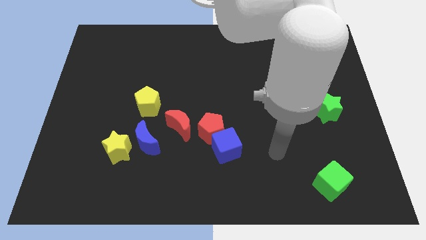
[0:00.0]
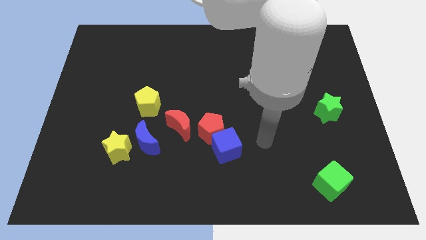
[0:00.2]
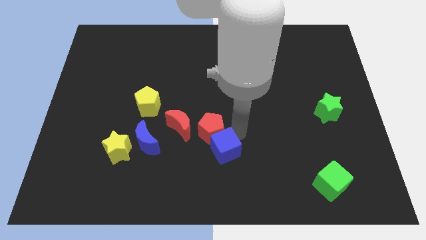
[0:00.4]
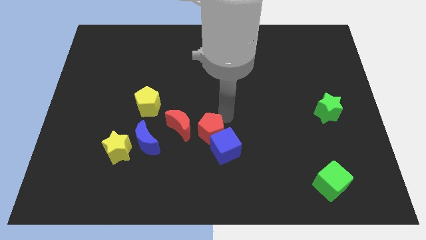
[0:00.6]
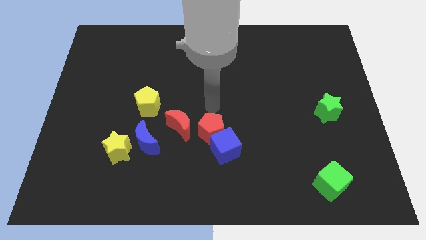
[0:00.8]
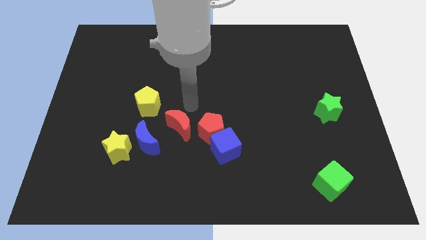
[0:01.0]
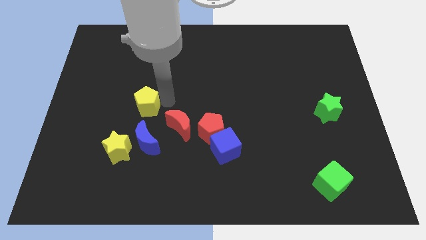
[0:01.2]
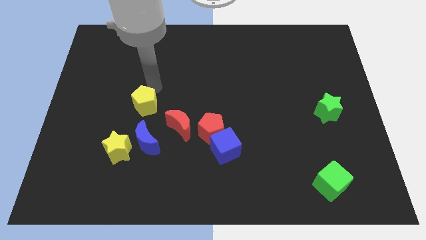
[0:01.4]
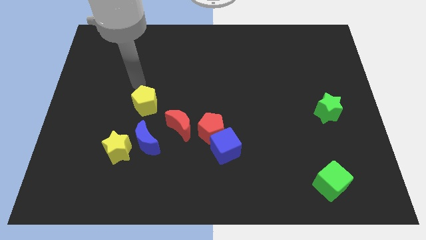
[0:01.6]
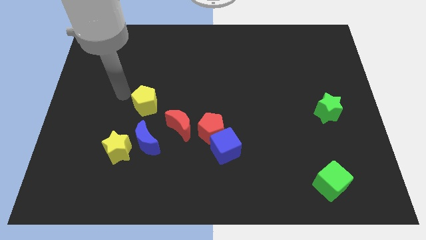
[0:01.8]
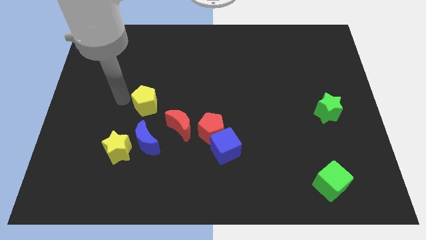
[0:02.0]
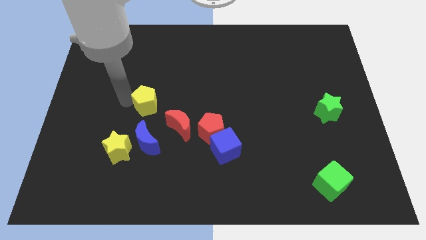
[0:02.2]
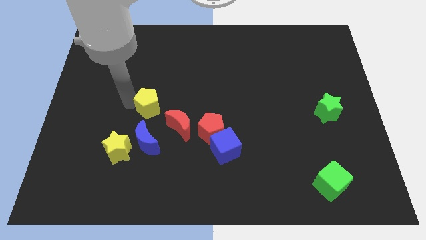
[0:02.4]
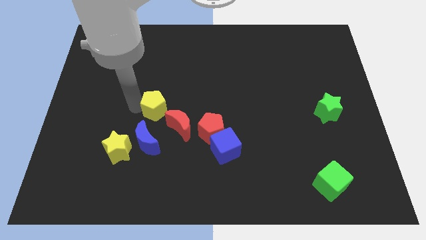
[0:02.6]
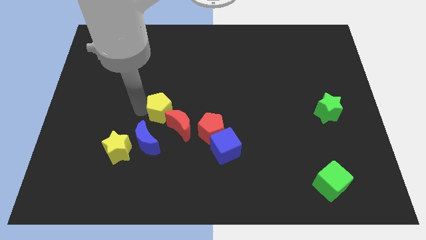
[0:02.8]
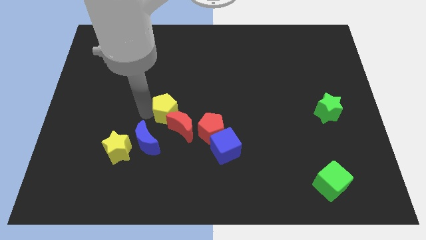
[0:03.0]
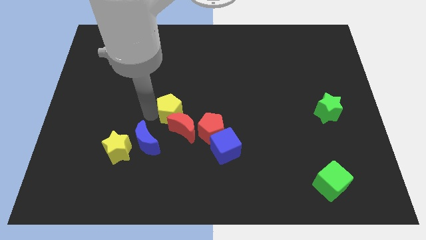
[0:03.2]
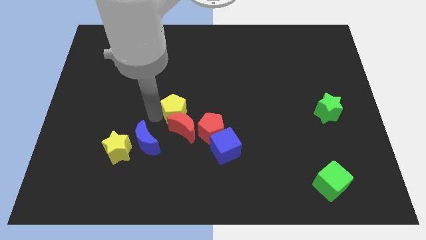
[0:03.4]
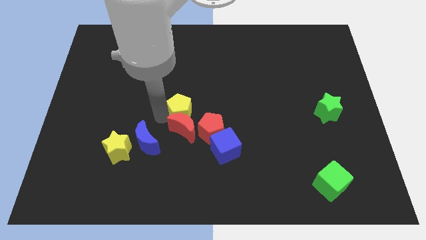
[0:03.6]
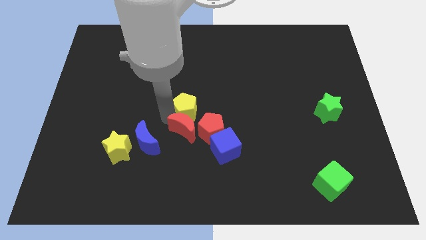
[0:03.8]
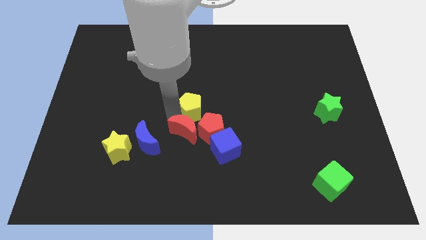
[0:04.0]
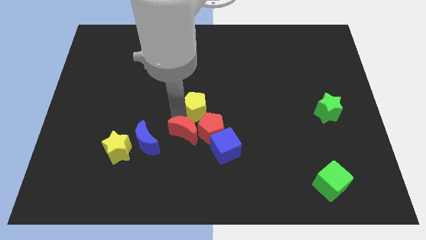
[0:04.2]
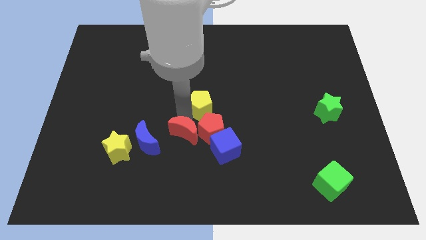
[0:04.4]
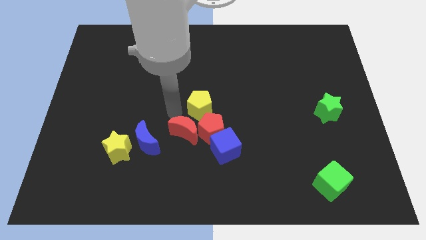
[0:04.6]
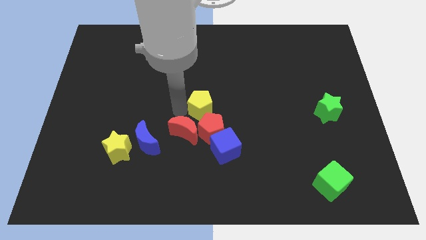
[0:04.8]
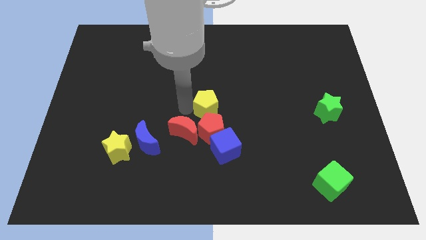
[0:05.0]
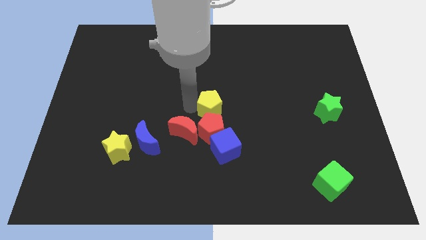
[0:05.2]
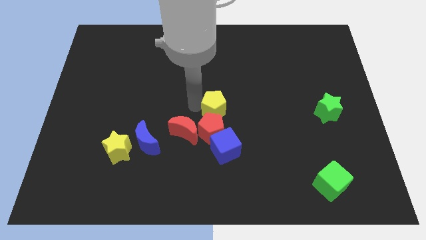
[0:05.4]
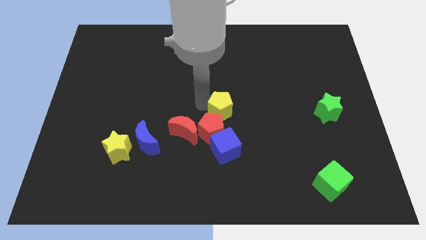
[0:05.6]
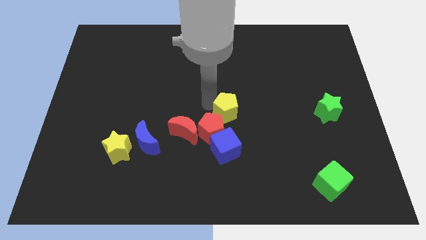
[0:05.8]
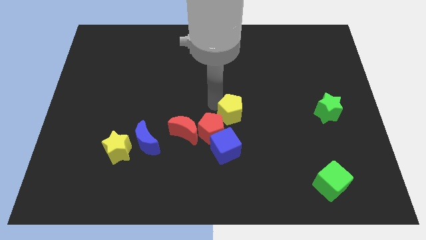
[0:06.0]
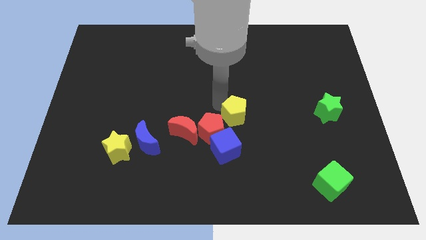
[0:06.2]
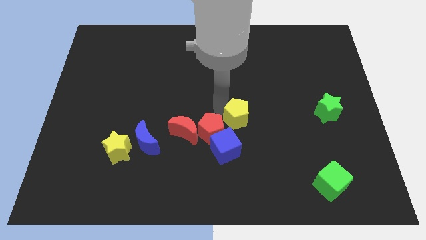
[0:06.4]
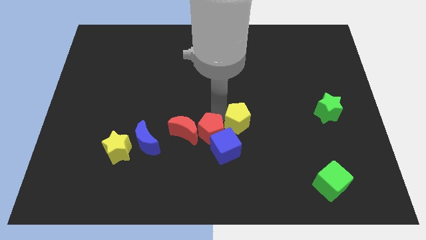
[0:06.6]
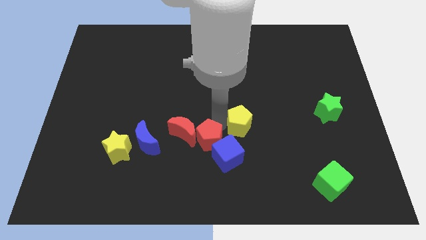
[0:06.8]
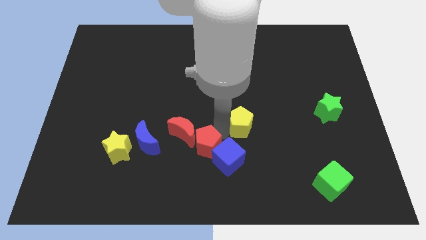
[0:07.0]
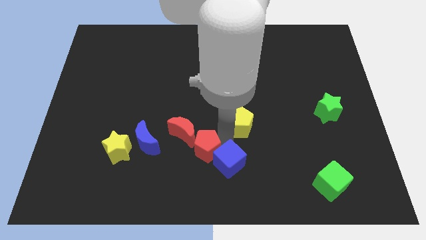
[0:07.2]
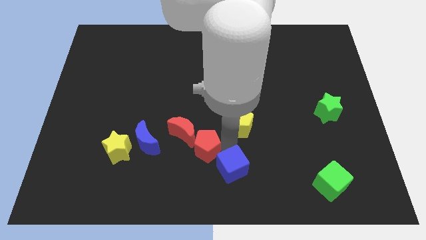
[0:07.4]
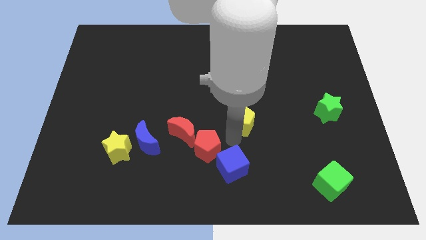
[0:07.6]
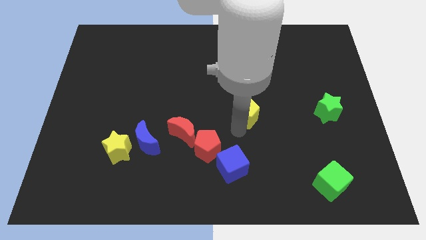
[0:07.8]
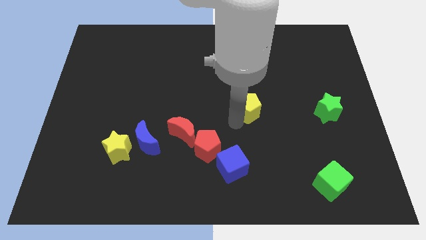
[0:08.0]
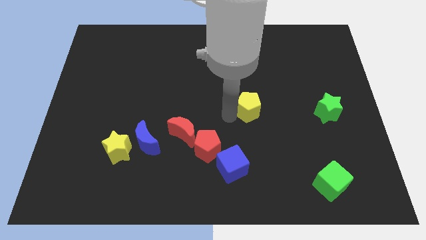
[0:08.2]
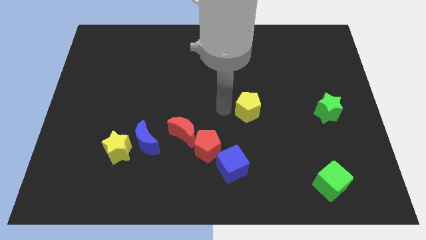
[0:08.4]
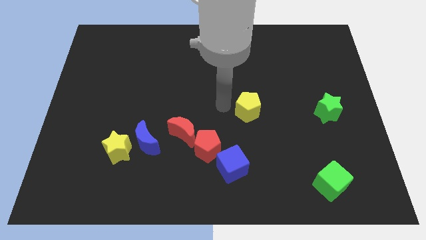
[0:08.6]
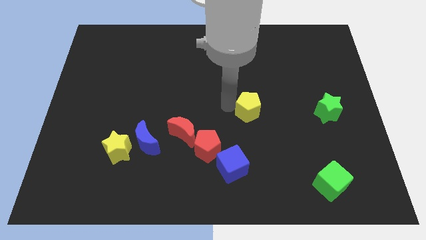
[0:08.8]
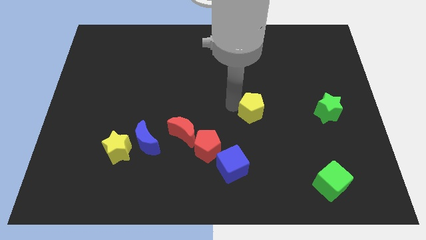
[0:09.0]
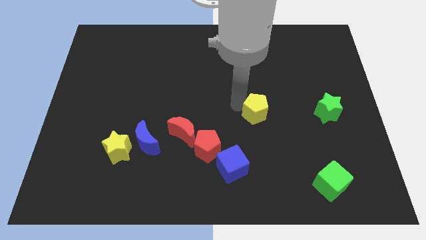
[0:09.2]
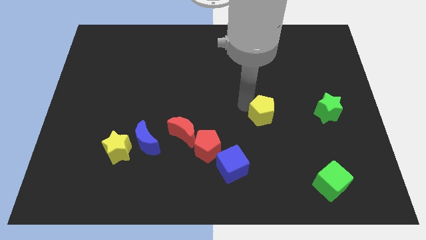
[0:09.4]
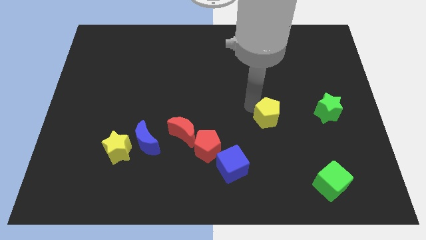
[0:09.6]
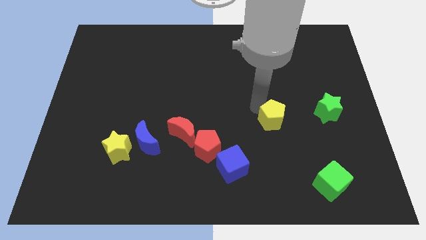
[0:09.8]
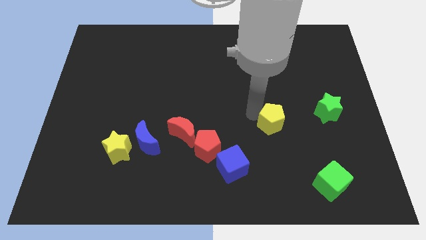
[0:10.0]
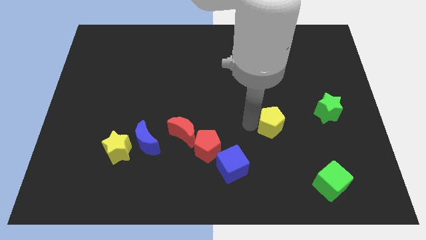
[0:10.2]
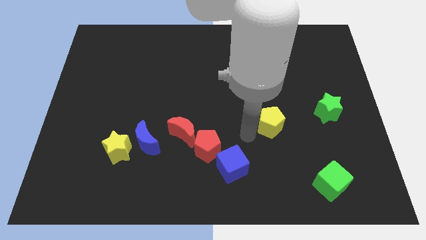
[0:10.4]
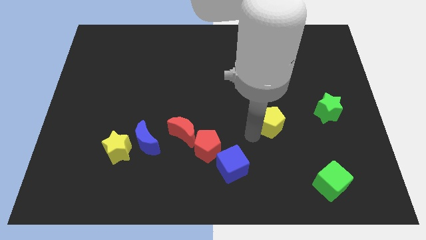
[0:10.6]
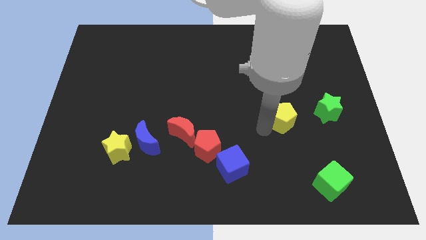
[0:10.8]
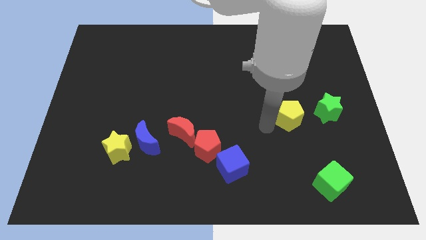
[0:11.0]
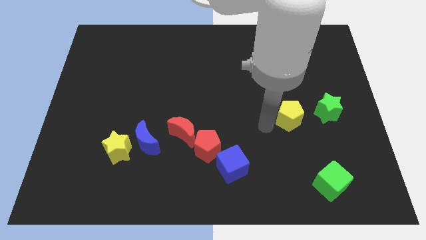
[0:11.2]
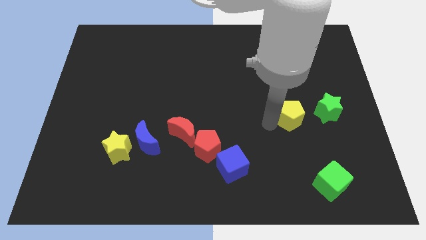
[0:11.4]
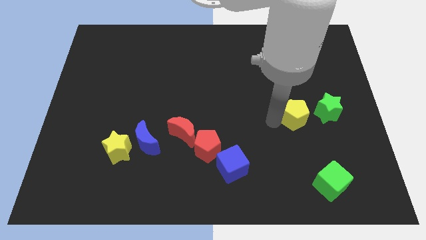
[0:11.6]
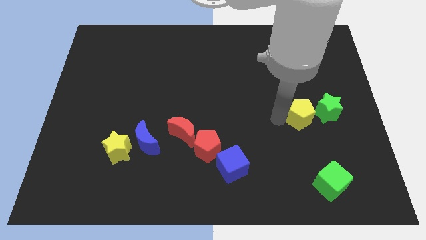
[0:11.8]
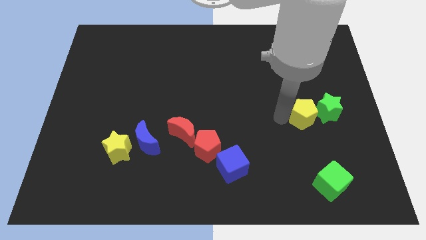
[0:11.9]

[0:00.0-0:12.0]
slide the yellow pentagon close to the green star

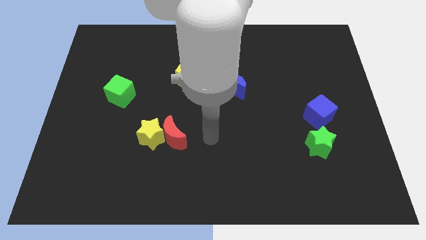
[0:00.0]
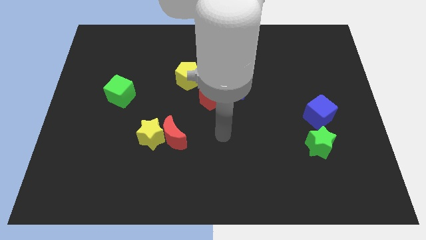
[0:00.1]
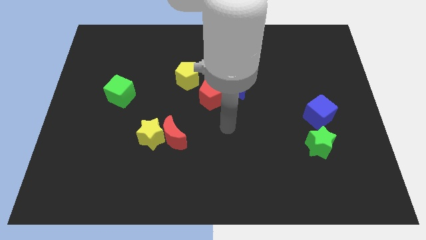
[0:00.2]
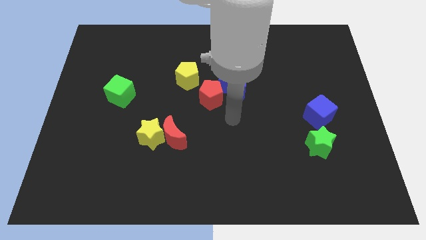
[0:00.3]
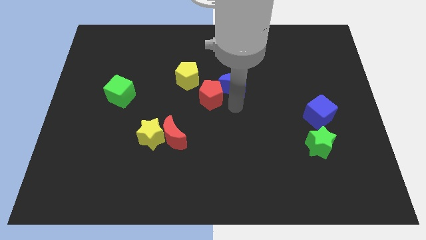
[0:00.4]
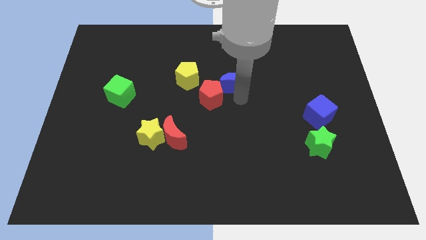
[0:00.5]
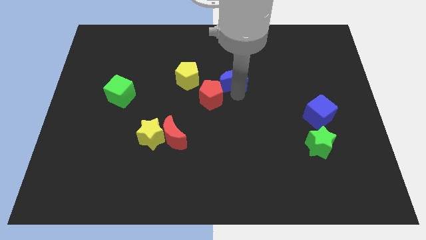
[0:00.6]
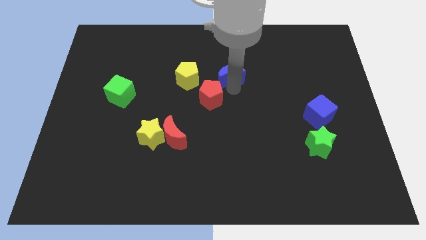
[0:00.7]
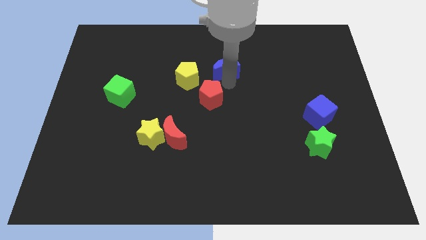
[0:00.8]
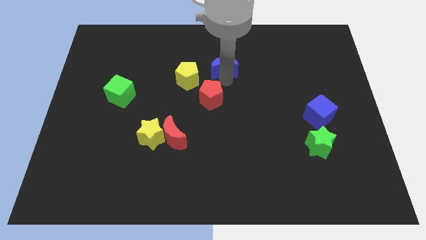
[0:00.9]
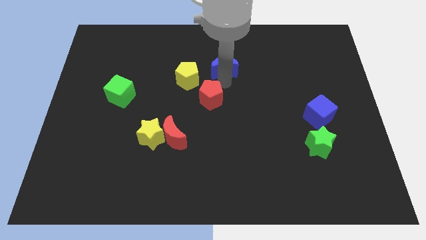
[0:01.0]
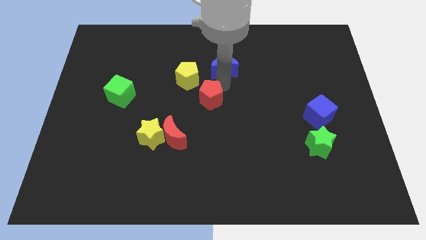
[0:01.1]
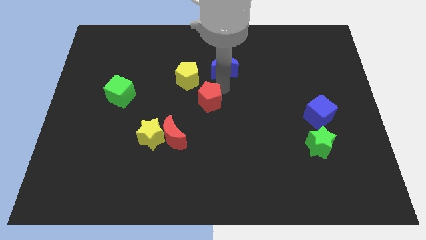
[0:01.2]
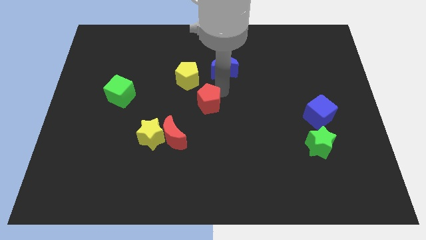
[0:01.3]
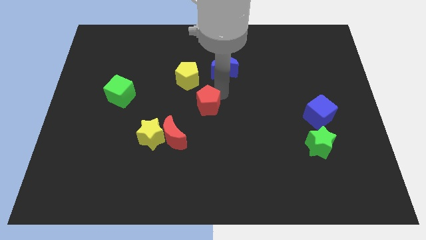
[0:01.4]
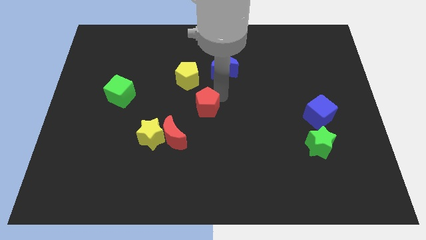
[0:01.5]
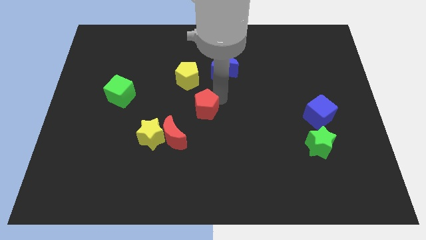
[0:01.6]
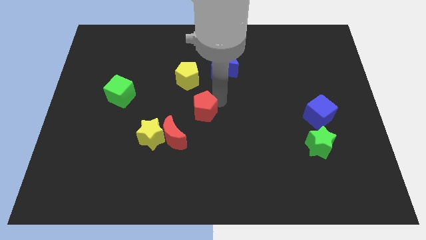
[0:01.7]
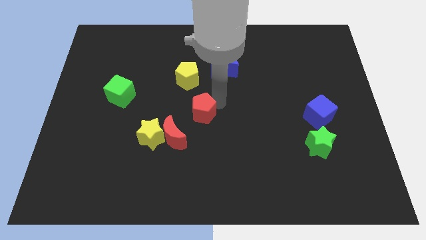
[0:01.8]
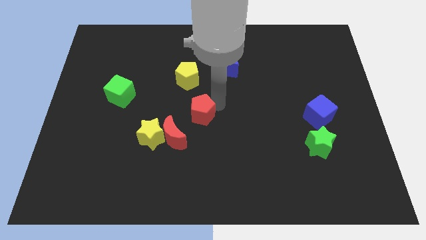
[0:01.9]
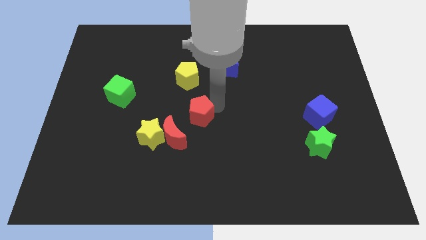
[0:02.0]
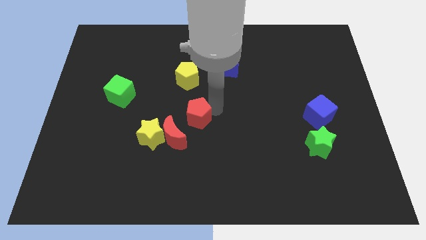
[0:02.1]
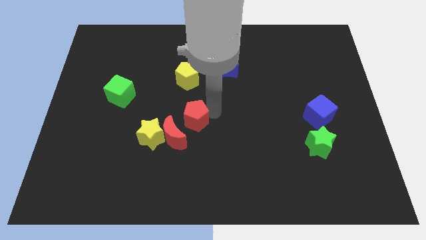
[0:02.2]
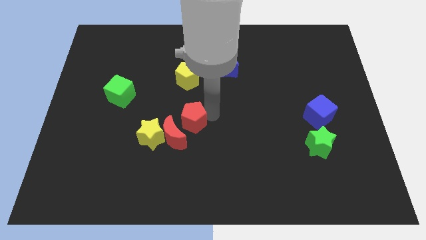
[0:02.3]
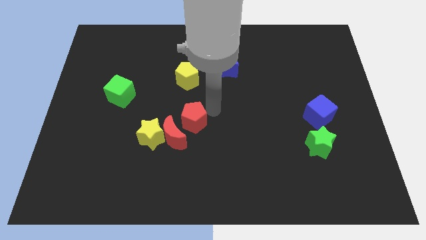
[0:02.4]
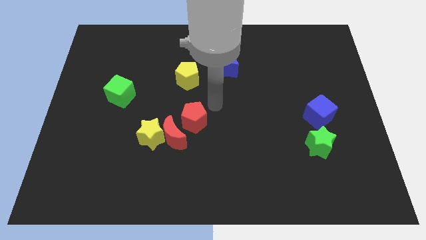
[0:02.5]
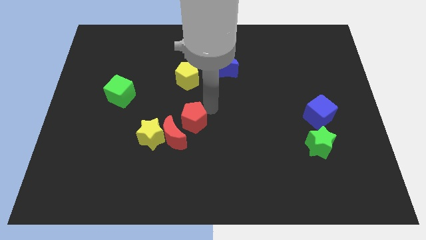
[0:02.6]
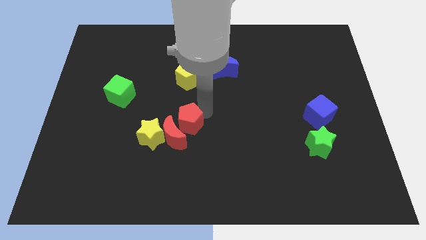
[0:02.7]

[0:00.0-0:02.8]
put the red pentagon towards the red moon
